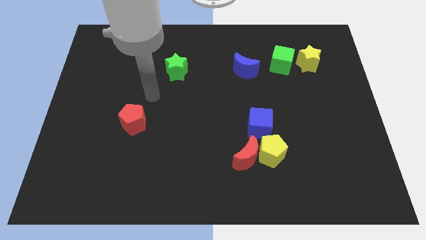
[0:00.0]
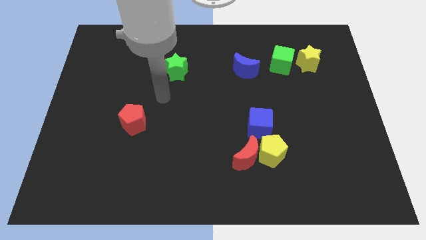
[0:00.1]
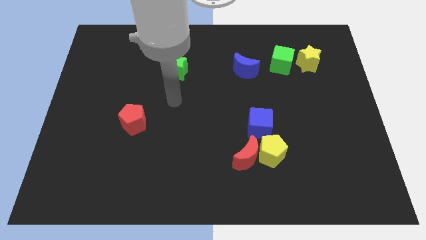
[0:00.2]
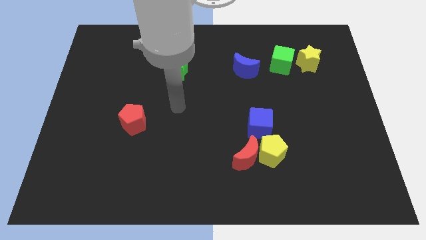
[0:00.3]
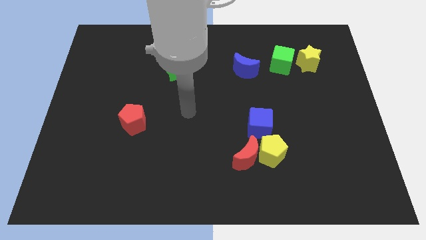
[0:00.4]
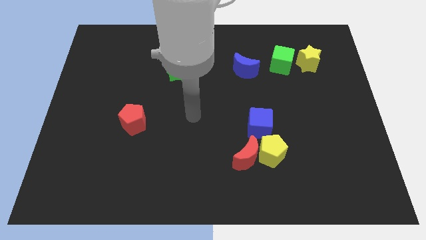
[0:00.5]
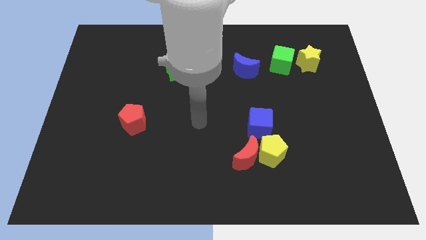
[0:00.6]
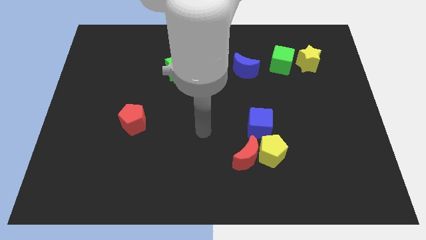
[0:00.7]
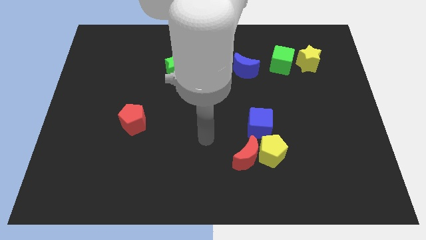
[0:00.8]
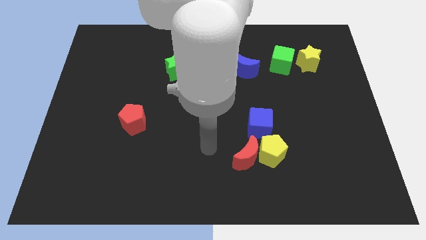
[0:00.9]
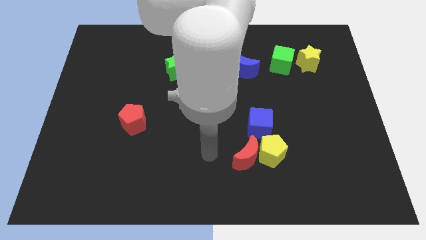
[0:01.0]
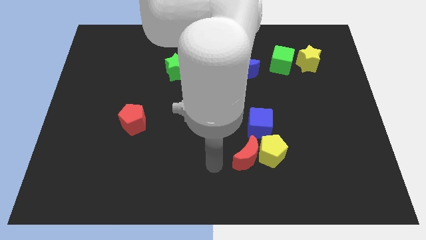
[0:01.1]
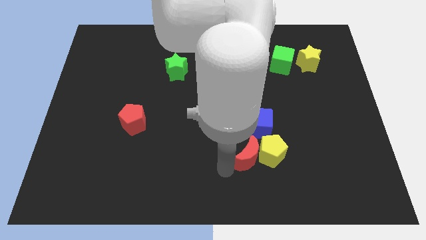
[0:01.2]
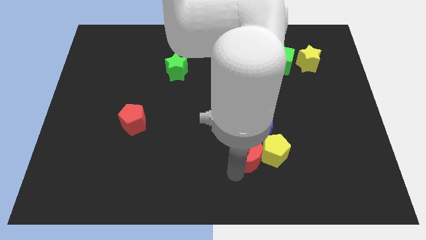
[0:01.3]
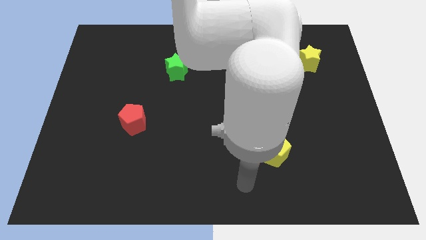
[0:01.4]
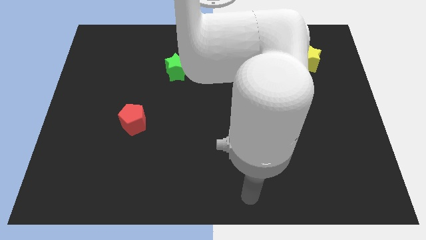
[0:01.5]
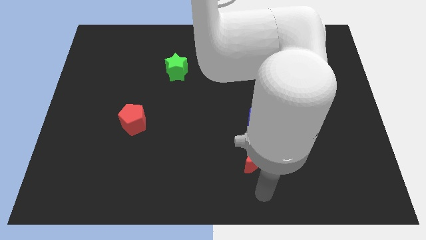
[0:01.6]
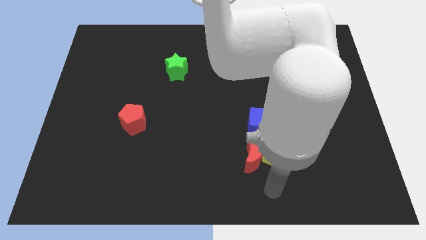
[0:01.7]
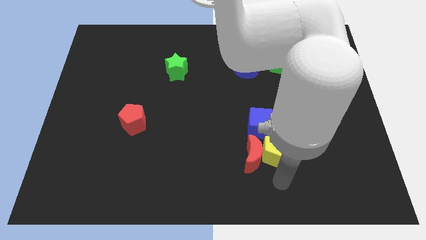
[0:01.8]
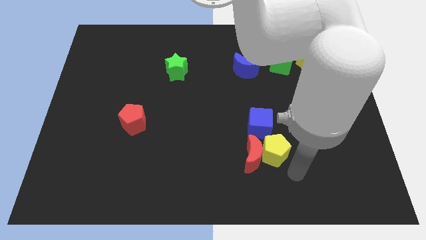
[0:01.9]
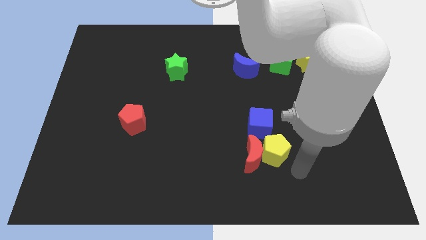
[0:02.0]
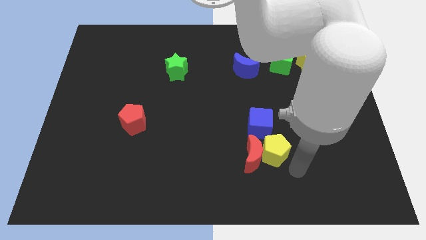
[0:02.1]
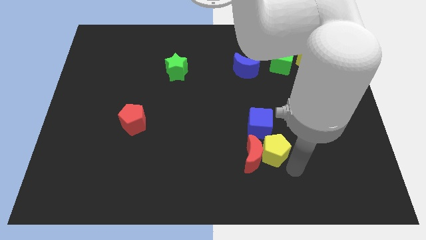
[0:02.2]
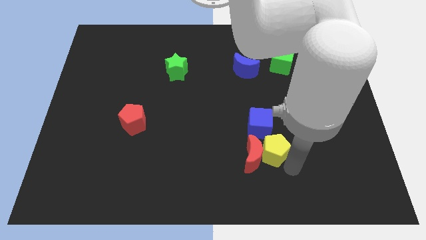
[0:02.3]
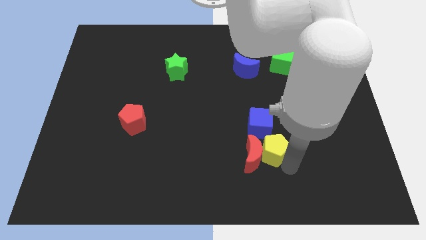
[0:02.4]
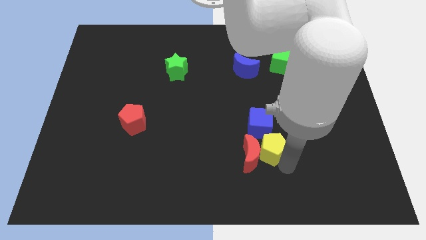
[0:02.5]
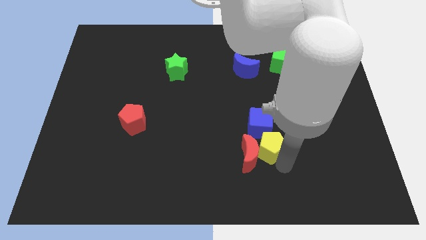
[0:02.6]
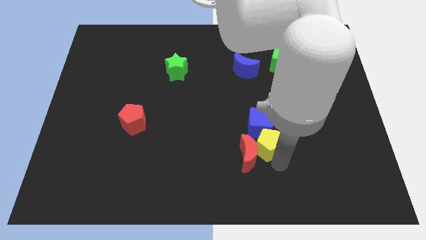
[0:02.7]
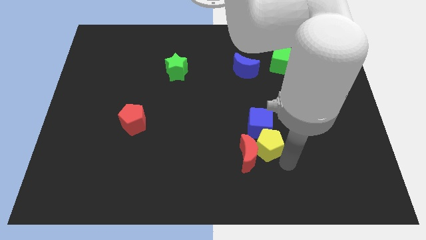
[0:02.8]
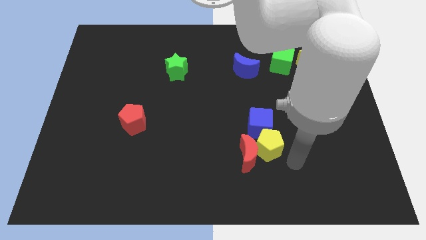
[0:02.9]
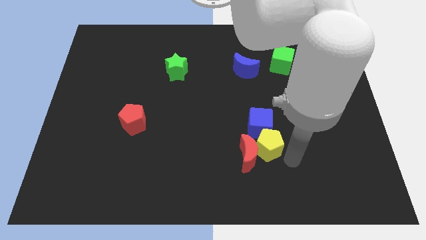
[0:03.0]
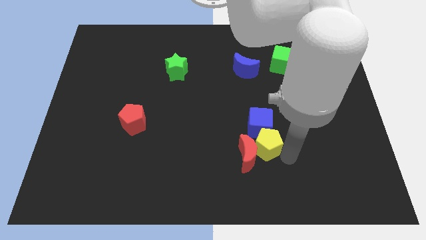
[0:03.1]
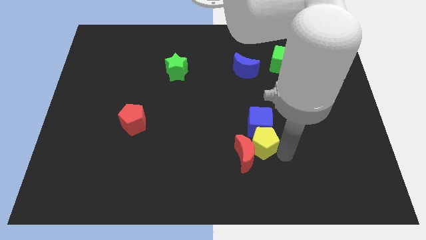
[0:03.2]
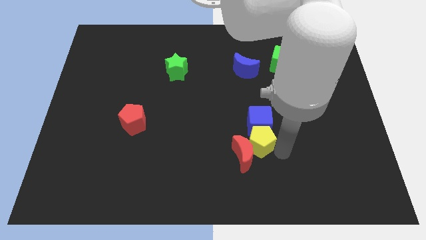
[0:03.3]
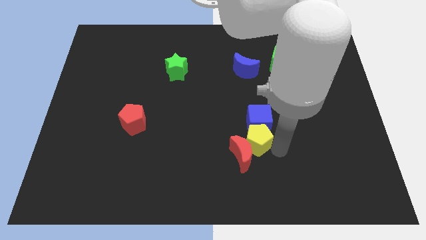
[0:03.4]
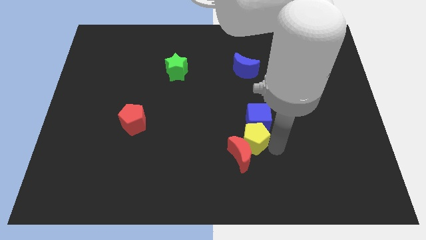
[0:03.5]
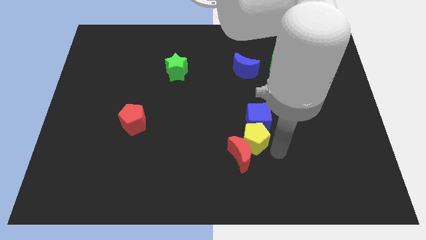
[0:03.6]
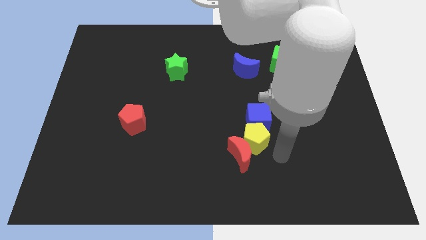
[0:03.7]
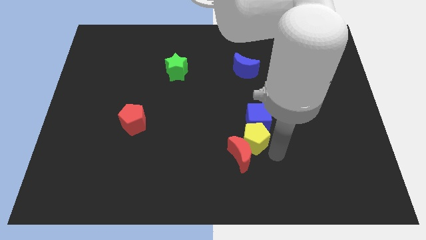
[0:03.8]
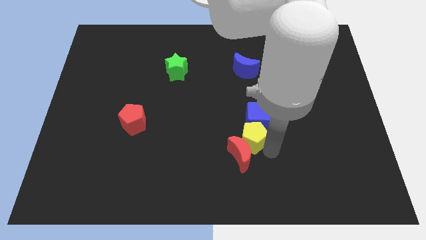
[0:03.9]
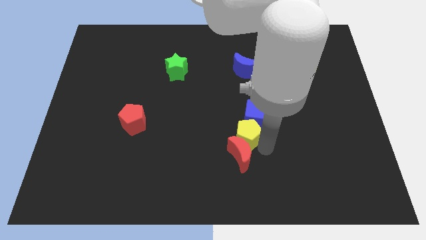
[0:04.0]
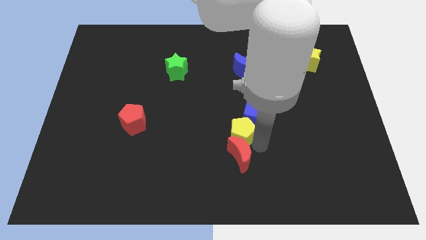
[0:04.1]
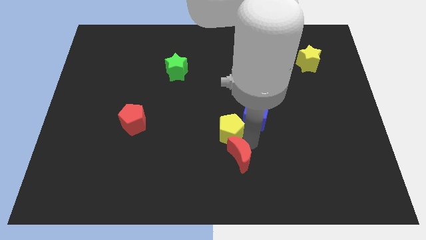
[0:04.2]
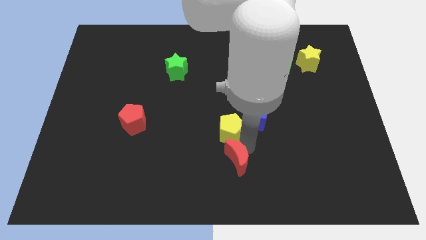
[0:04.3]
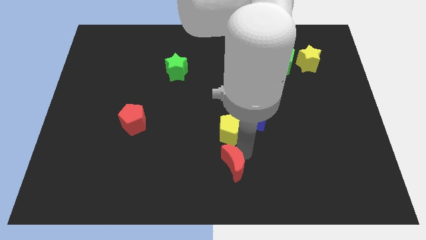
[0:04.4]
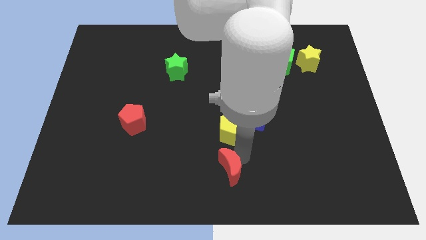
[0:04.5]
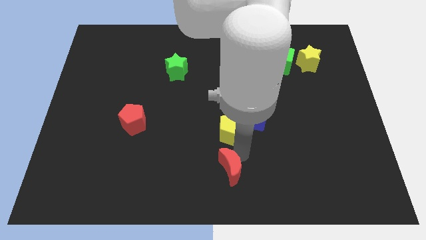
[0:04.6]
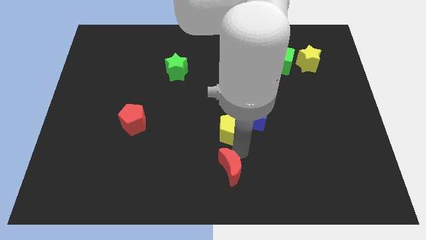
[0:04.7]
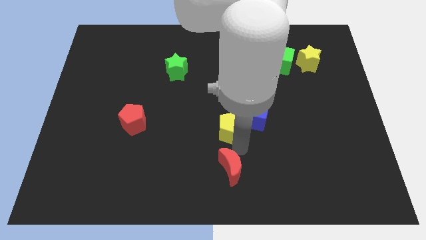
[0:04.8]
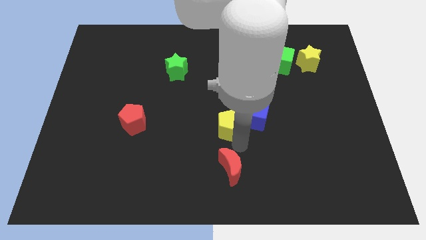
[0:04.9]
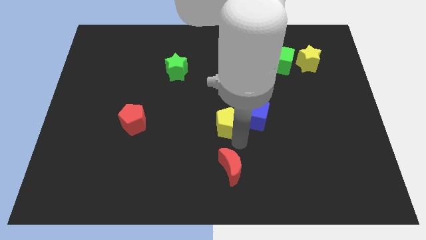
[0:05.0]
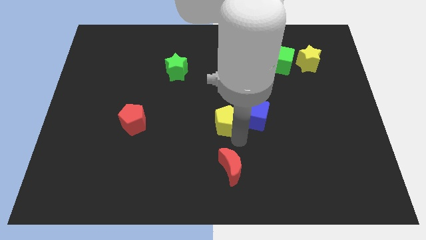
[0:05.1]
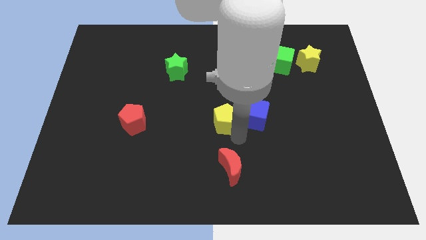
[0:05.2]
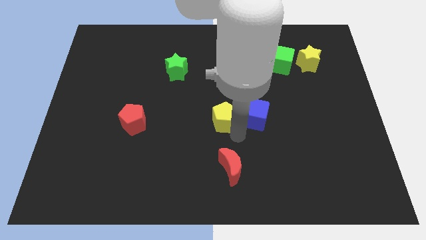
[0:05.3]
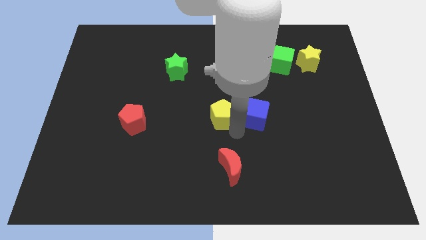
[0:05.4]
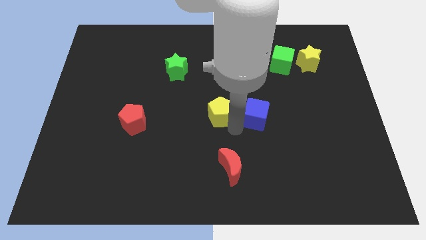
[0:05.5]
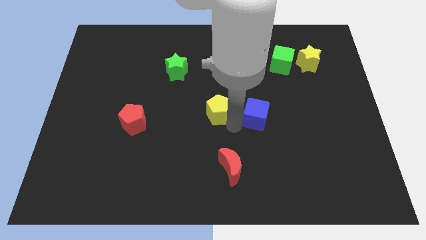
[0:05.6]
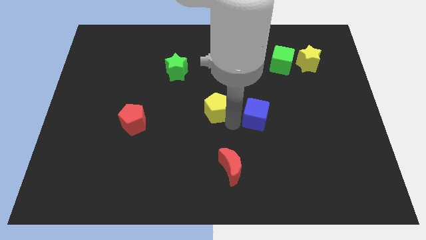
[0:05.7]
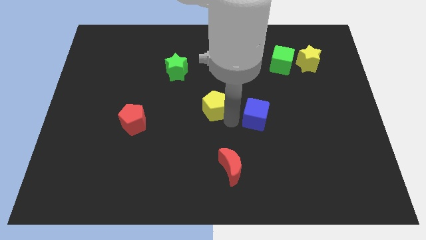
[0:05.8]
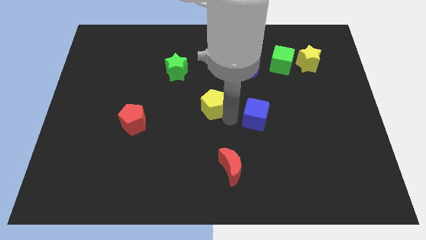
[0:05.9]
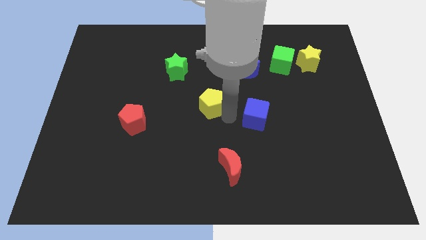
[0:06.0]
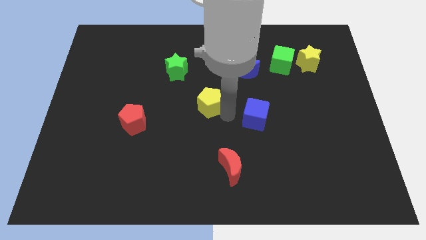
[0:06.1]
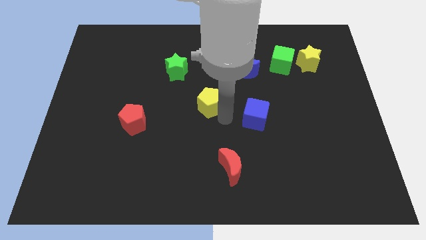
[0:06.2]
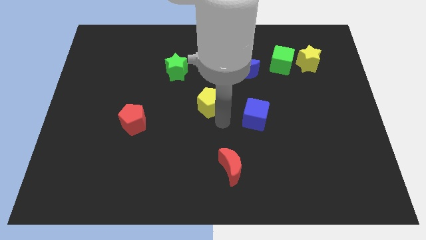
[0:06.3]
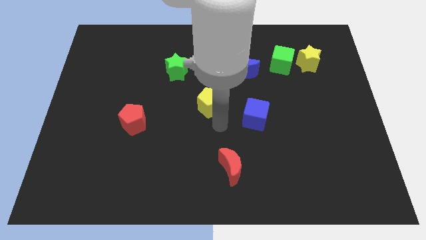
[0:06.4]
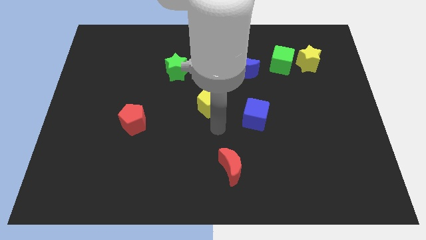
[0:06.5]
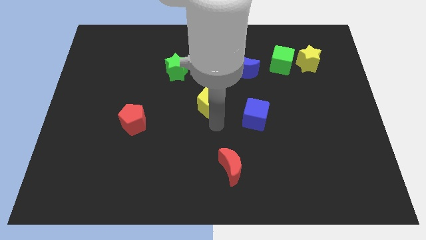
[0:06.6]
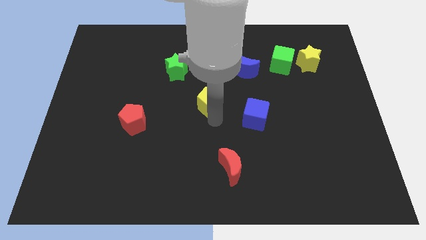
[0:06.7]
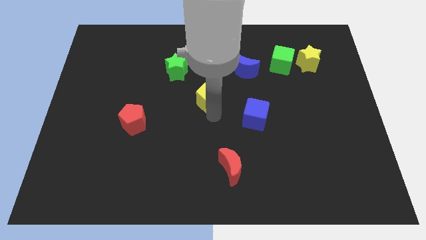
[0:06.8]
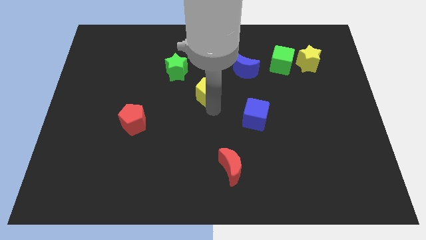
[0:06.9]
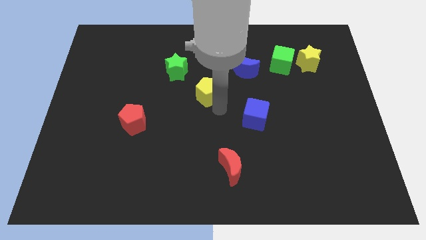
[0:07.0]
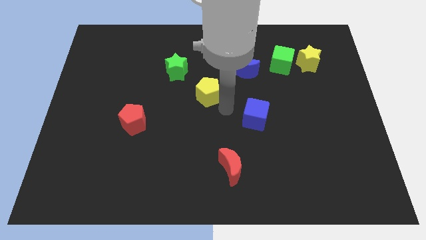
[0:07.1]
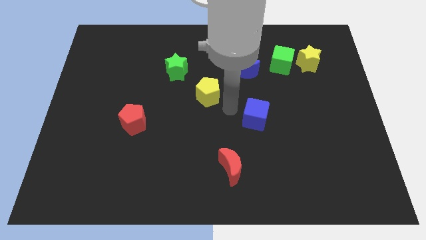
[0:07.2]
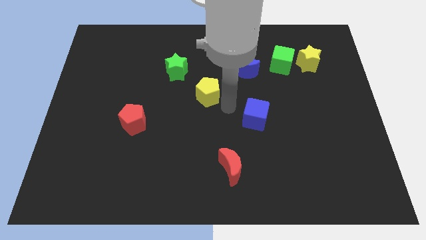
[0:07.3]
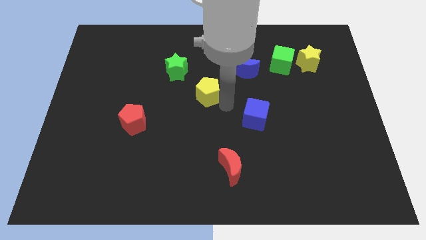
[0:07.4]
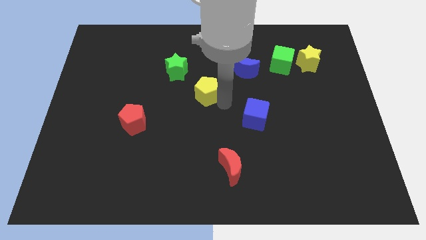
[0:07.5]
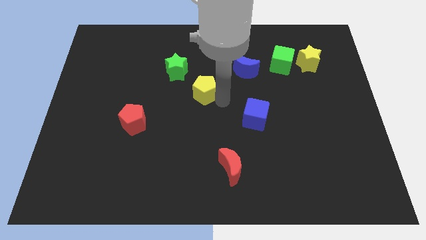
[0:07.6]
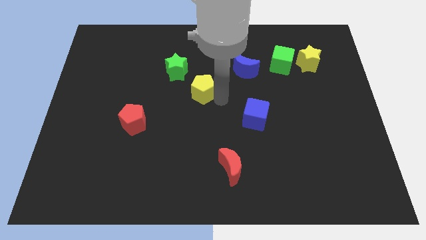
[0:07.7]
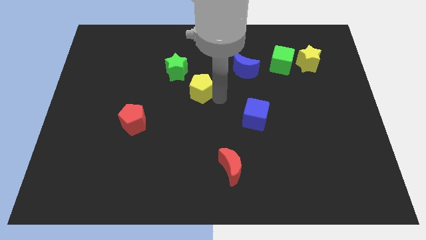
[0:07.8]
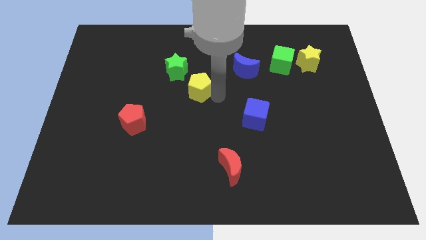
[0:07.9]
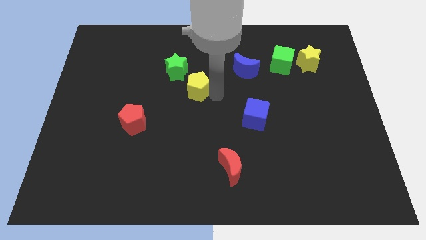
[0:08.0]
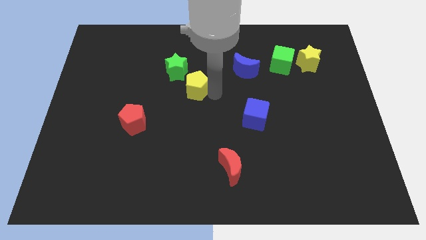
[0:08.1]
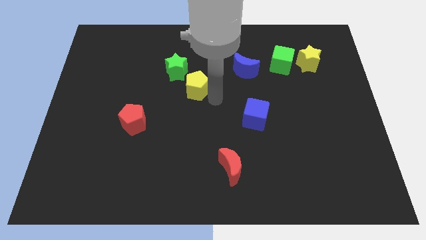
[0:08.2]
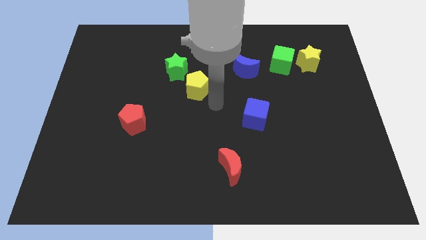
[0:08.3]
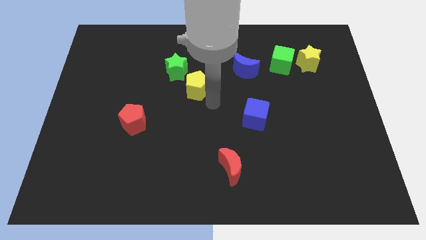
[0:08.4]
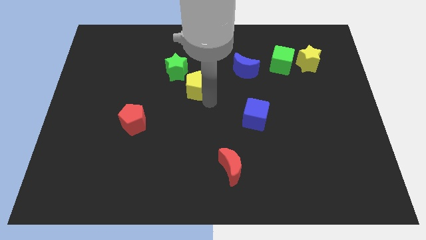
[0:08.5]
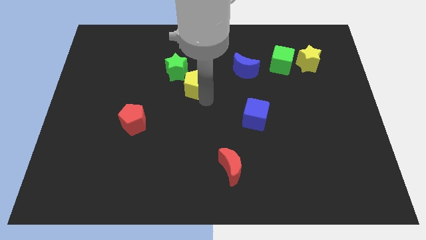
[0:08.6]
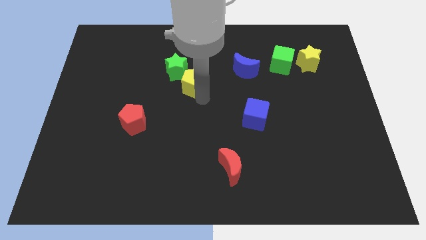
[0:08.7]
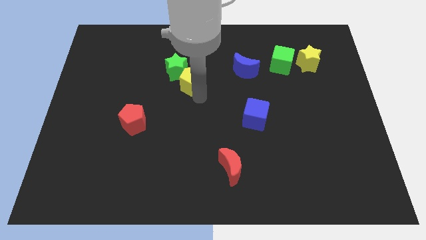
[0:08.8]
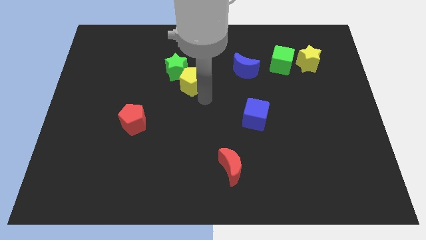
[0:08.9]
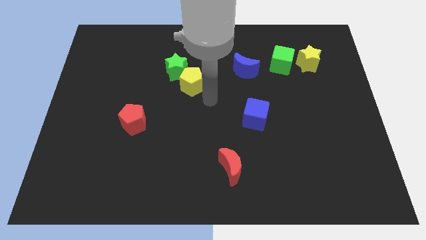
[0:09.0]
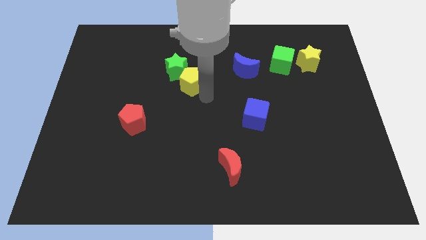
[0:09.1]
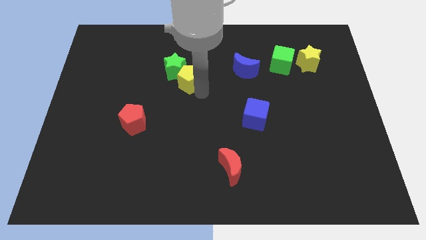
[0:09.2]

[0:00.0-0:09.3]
slide the yellow pentagon towards the green star
